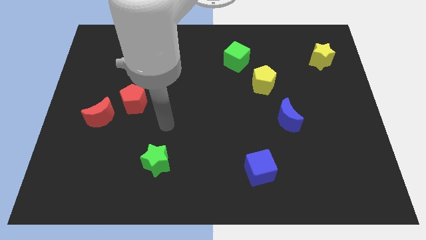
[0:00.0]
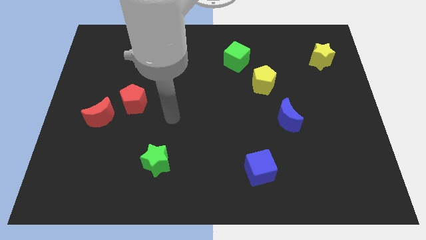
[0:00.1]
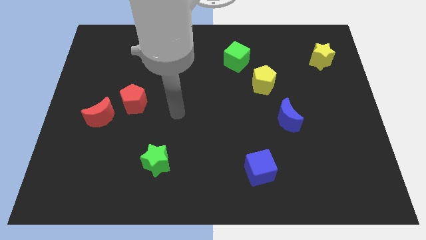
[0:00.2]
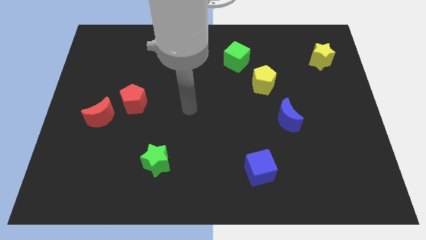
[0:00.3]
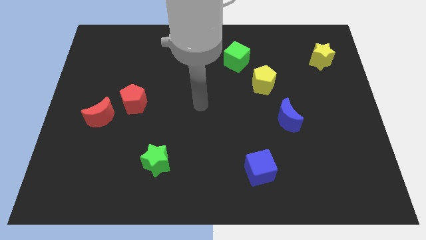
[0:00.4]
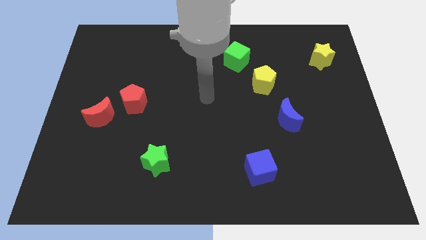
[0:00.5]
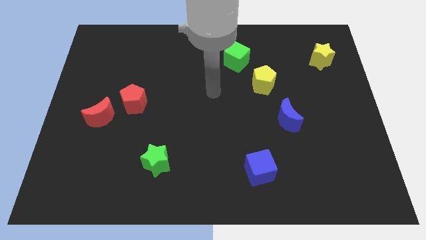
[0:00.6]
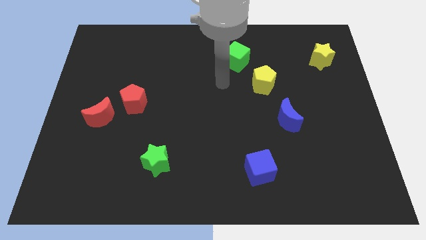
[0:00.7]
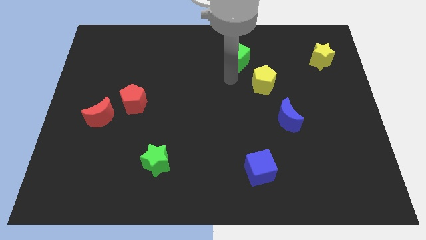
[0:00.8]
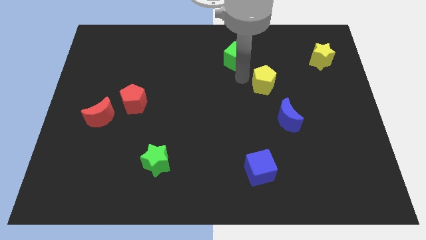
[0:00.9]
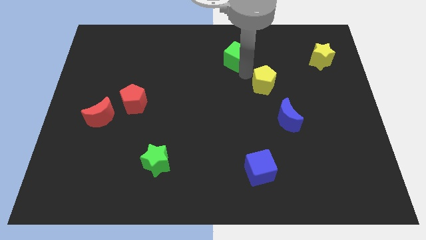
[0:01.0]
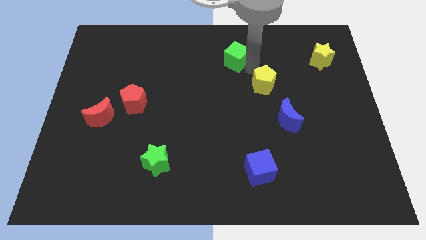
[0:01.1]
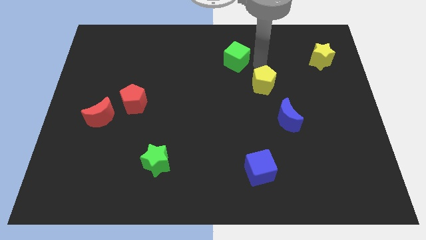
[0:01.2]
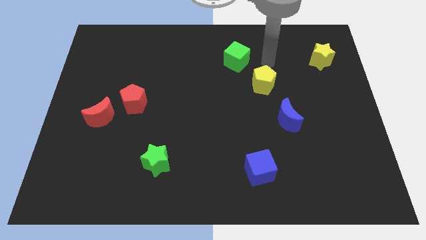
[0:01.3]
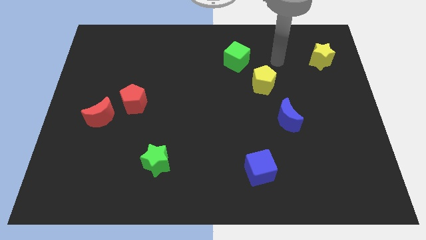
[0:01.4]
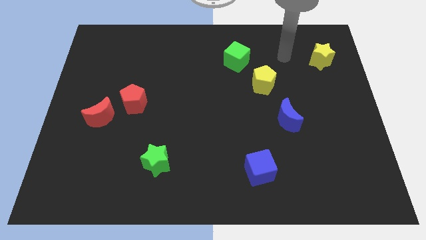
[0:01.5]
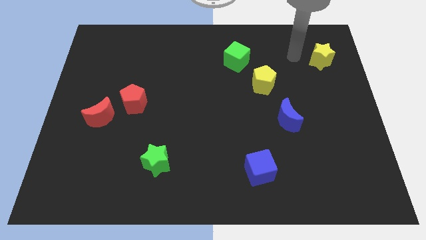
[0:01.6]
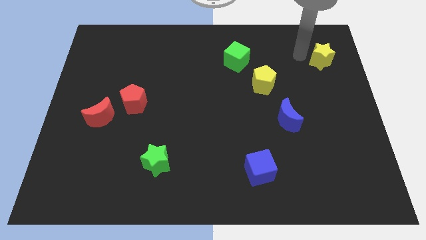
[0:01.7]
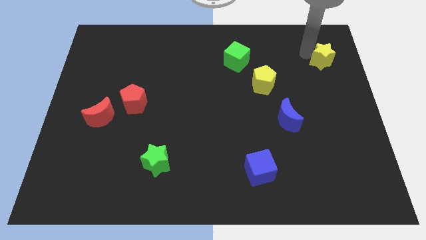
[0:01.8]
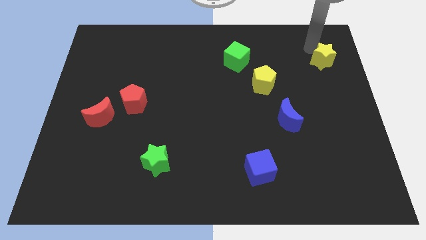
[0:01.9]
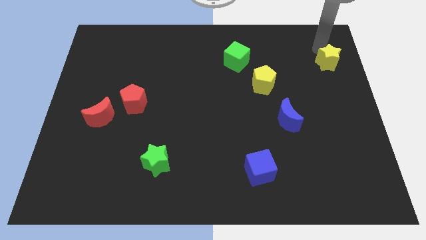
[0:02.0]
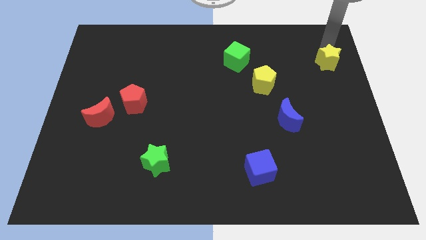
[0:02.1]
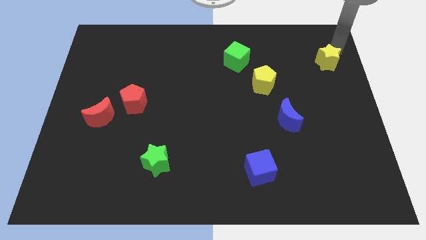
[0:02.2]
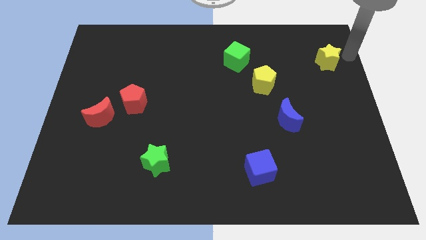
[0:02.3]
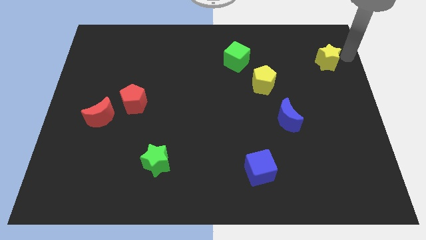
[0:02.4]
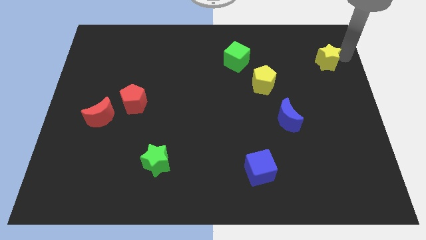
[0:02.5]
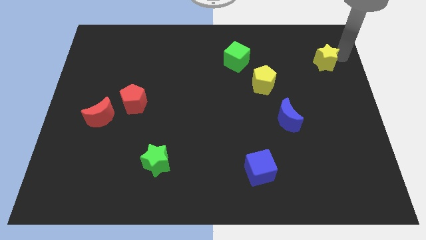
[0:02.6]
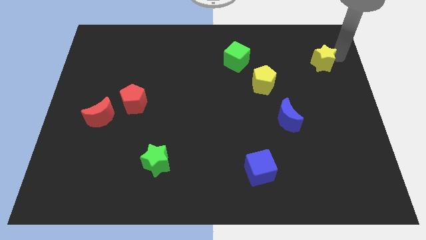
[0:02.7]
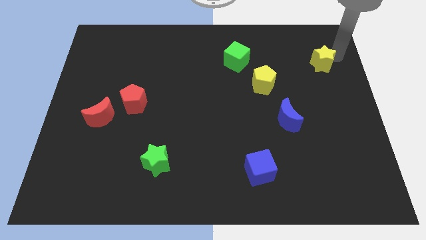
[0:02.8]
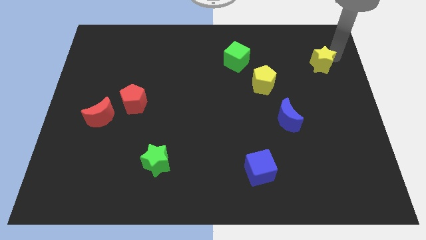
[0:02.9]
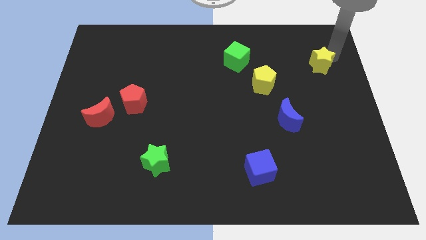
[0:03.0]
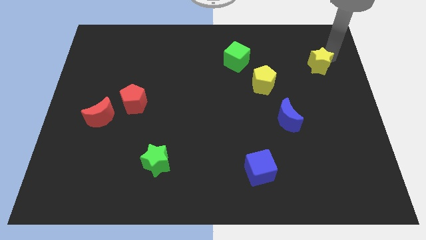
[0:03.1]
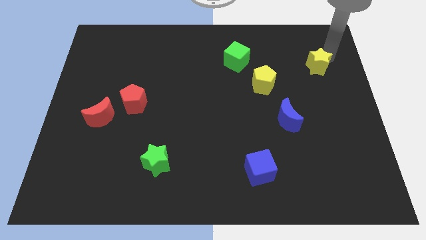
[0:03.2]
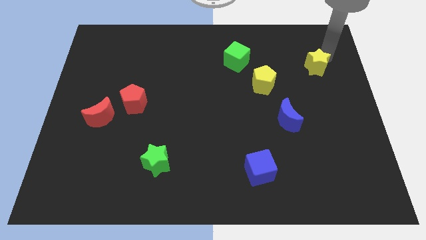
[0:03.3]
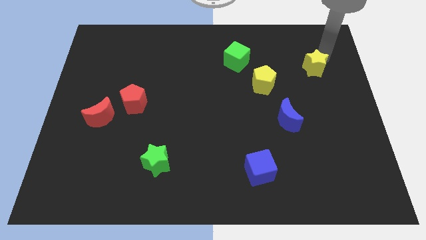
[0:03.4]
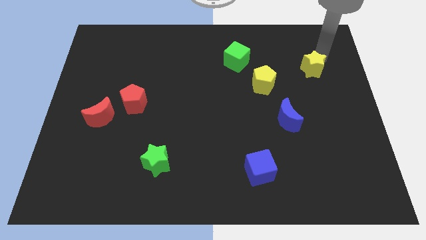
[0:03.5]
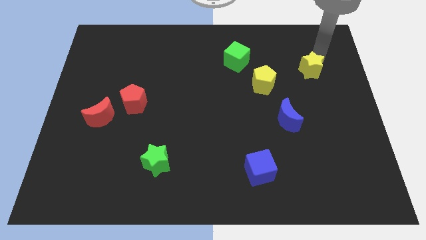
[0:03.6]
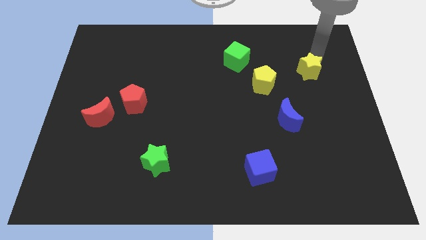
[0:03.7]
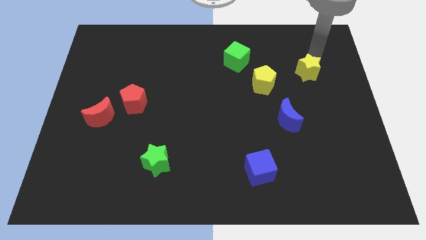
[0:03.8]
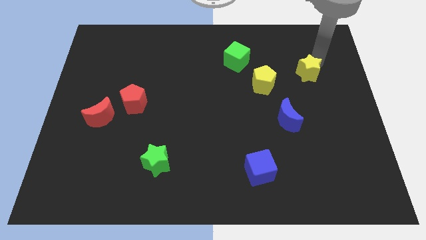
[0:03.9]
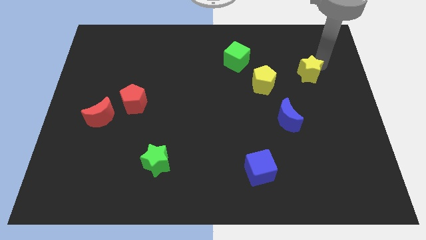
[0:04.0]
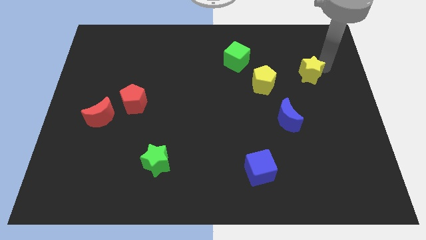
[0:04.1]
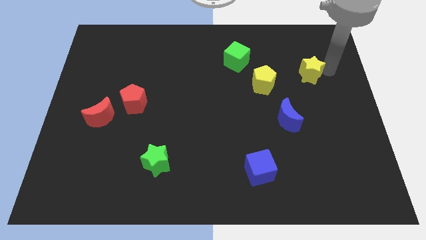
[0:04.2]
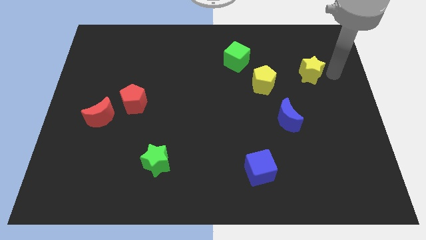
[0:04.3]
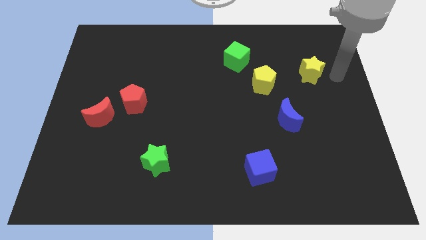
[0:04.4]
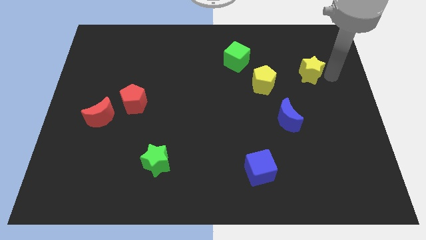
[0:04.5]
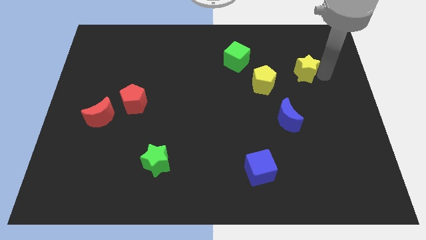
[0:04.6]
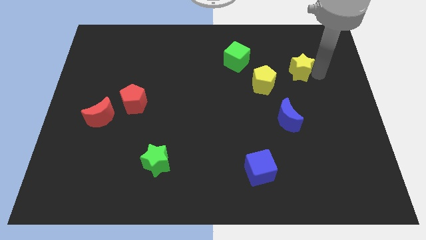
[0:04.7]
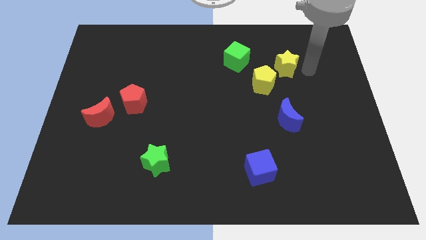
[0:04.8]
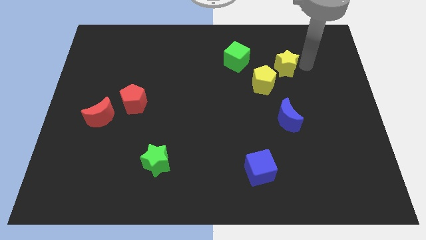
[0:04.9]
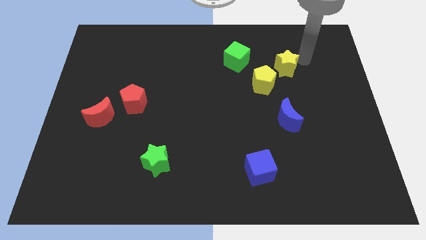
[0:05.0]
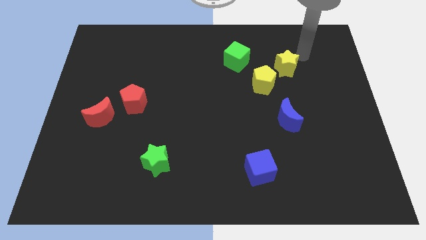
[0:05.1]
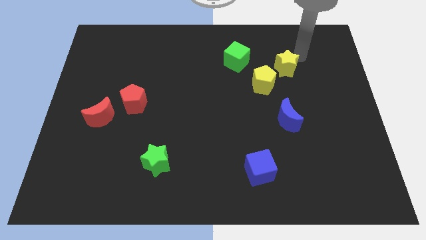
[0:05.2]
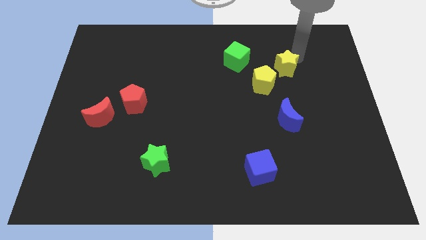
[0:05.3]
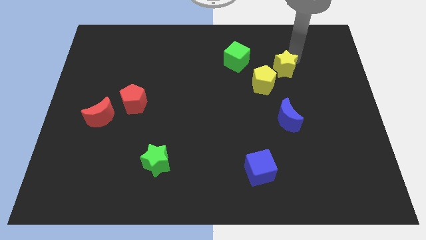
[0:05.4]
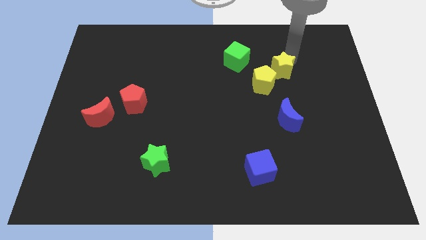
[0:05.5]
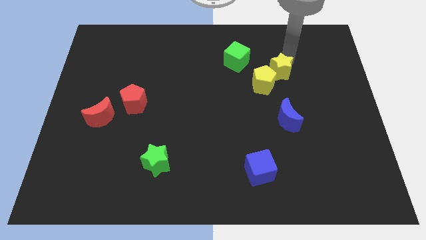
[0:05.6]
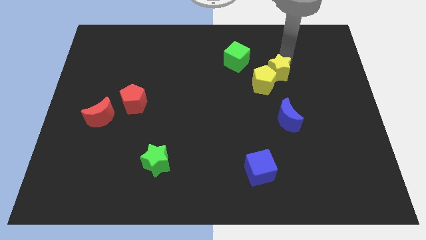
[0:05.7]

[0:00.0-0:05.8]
push the yellow star next to the yellow pentagon

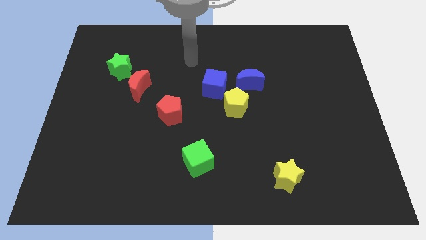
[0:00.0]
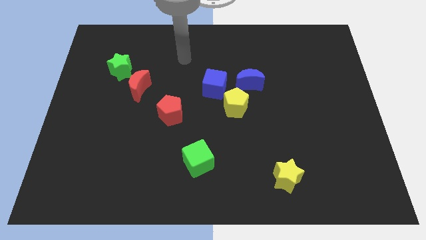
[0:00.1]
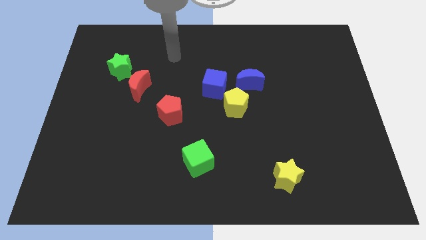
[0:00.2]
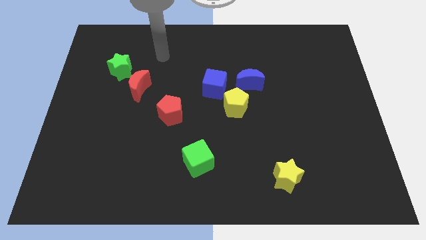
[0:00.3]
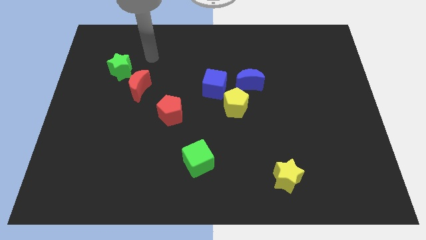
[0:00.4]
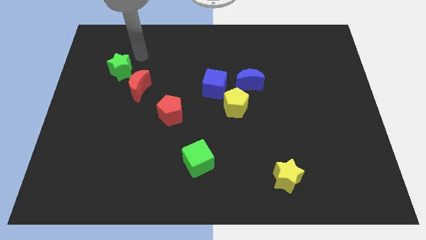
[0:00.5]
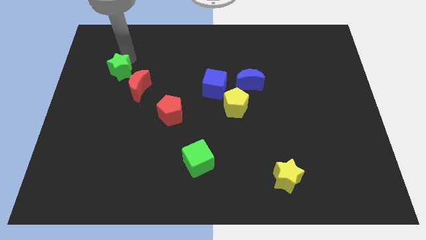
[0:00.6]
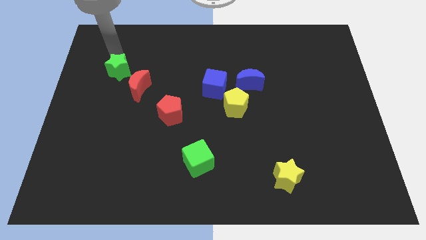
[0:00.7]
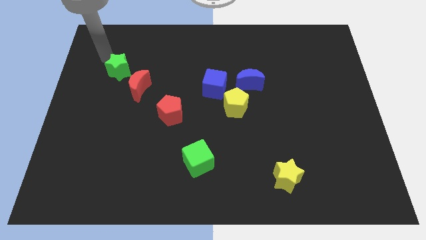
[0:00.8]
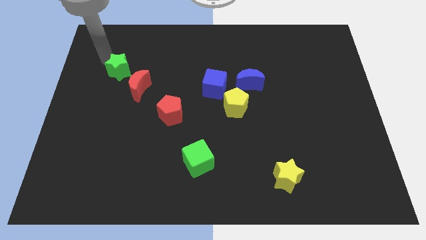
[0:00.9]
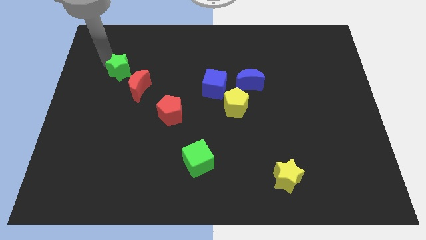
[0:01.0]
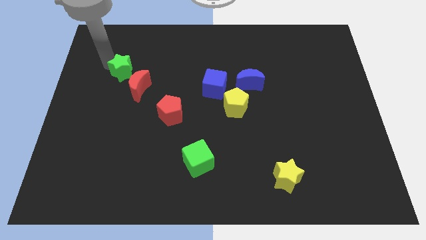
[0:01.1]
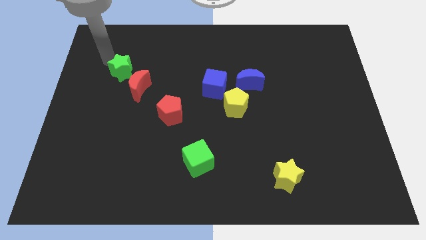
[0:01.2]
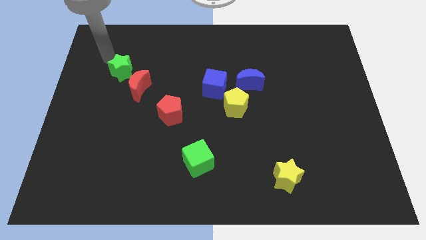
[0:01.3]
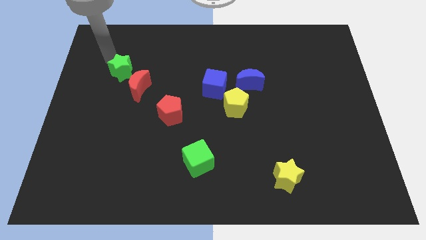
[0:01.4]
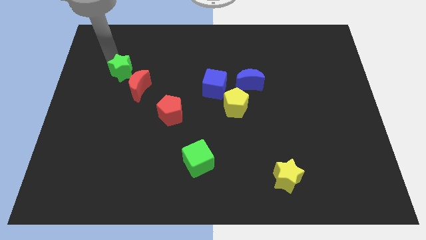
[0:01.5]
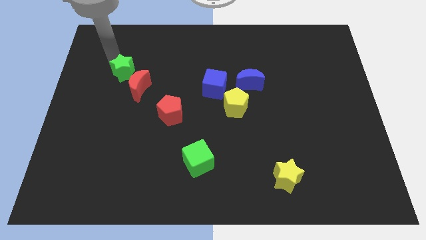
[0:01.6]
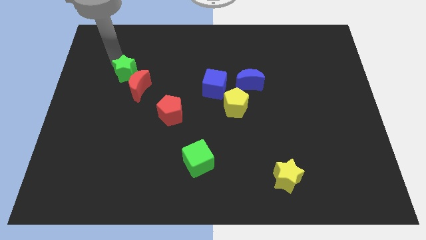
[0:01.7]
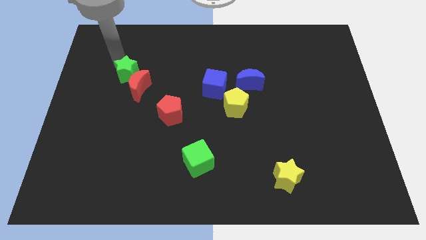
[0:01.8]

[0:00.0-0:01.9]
push the green star to the red moon
